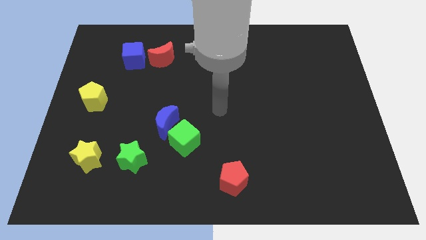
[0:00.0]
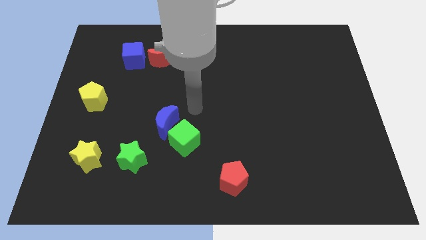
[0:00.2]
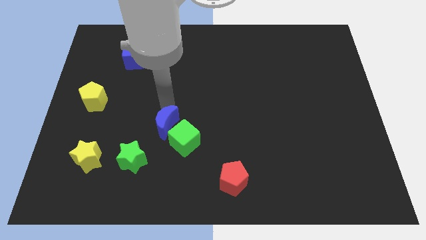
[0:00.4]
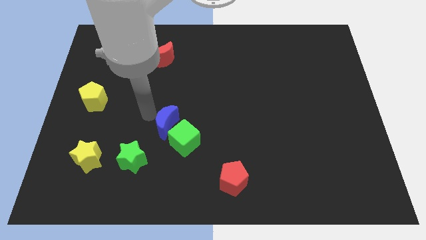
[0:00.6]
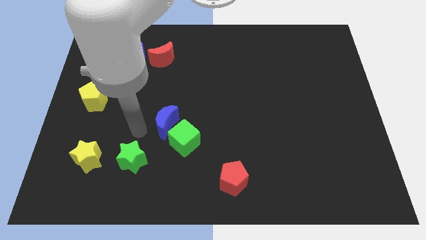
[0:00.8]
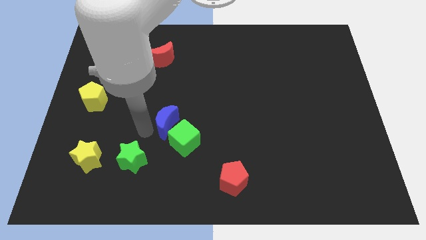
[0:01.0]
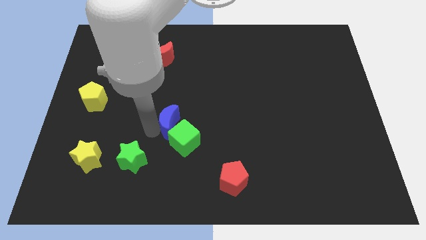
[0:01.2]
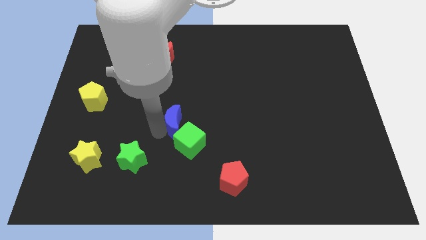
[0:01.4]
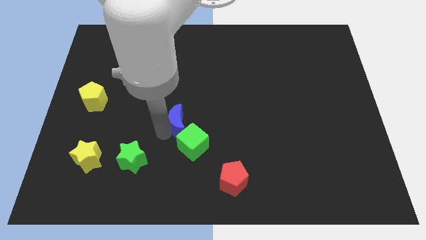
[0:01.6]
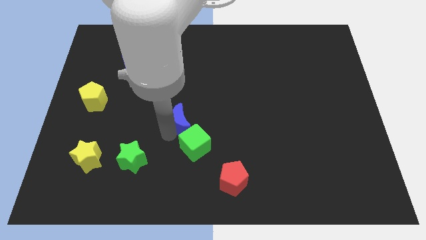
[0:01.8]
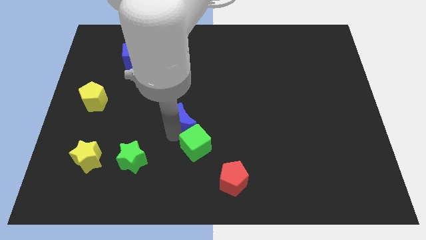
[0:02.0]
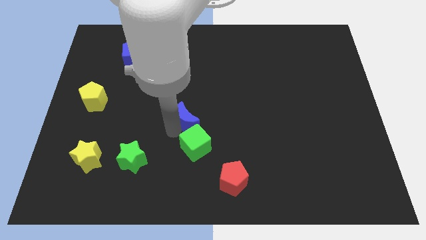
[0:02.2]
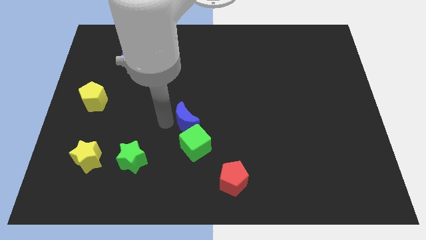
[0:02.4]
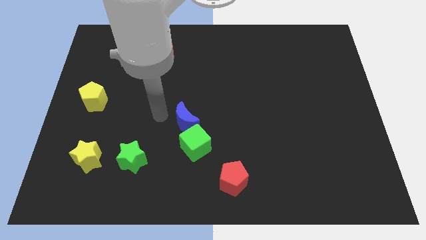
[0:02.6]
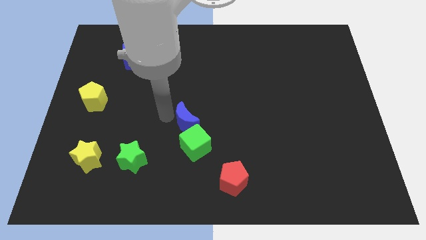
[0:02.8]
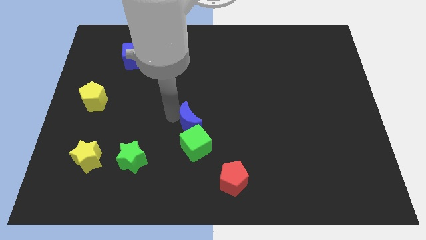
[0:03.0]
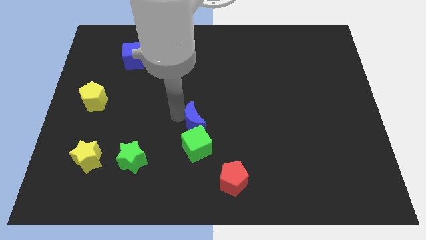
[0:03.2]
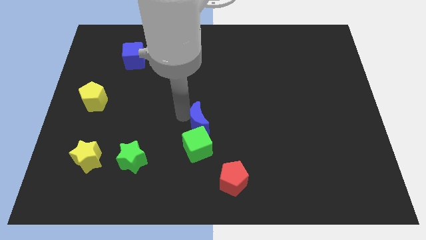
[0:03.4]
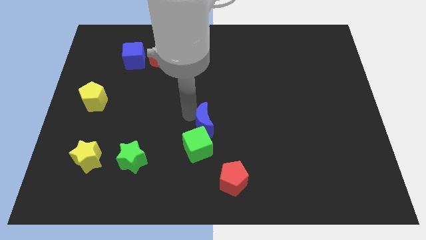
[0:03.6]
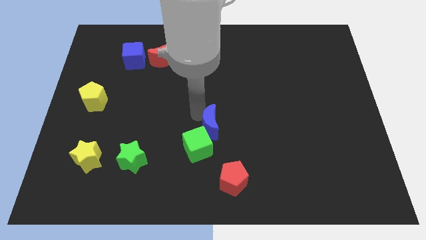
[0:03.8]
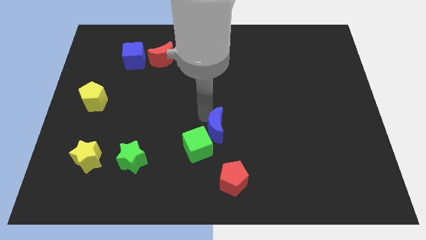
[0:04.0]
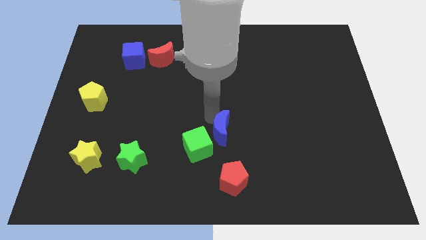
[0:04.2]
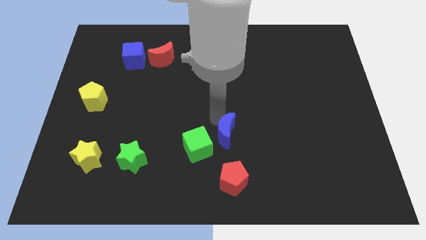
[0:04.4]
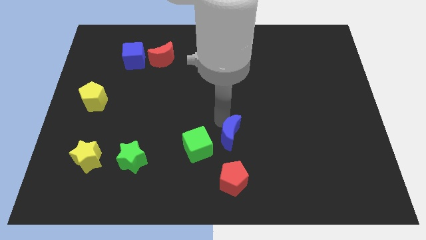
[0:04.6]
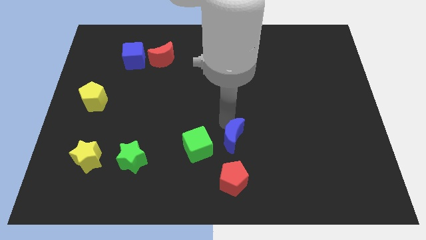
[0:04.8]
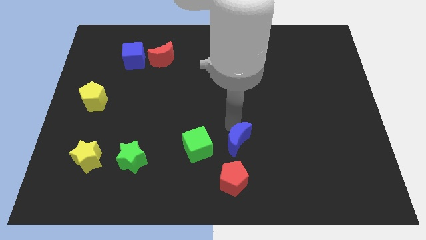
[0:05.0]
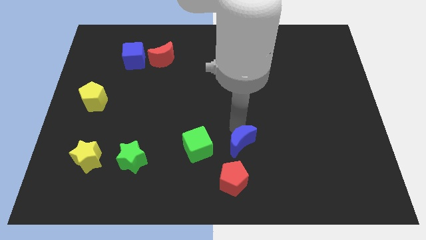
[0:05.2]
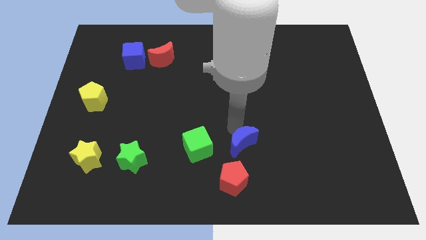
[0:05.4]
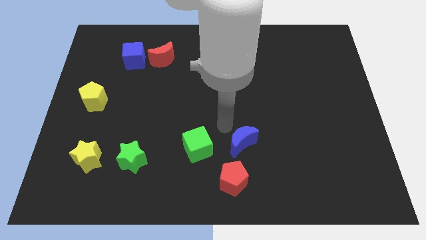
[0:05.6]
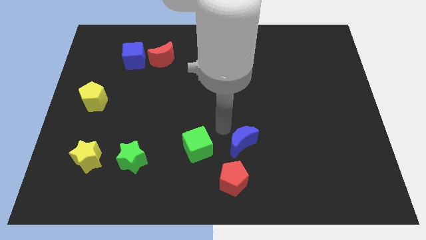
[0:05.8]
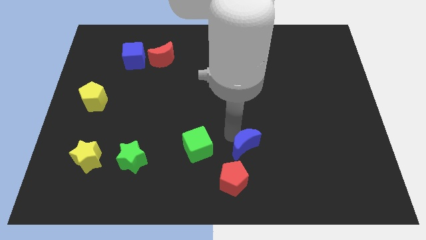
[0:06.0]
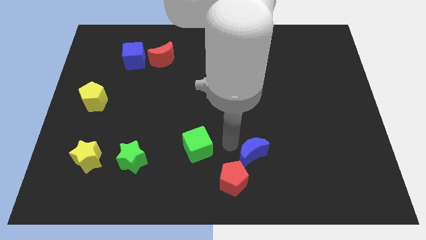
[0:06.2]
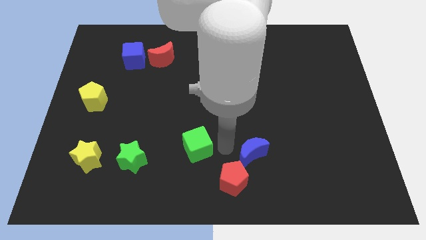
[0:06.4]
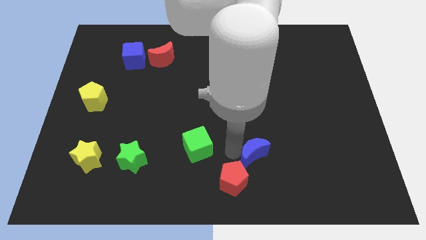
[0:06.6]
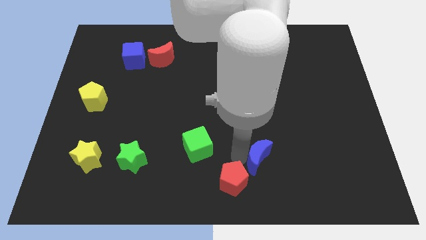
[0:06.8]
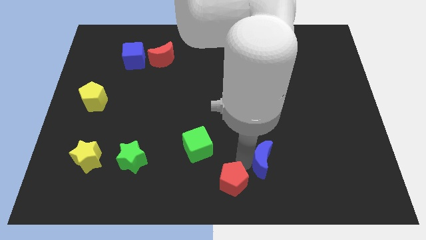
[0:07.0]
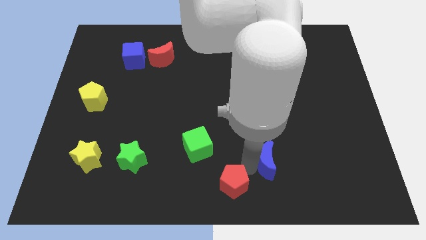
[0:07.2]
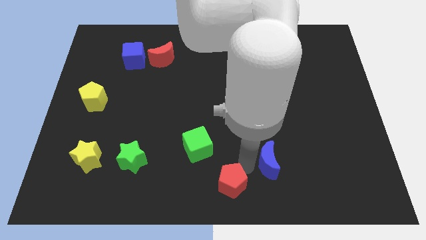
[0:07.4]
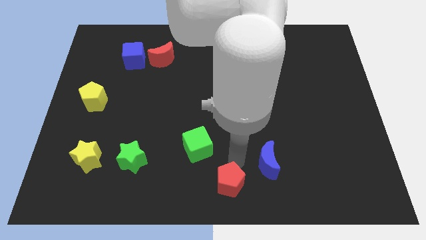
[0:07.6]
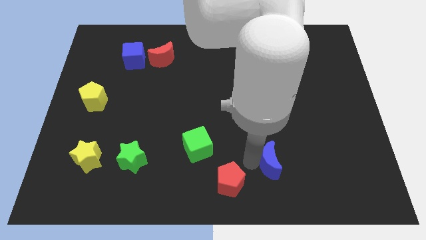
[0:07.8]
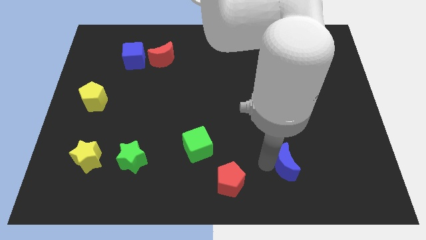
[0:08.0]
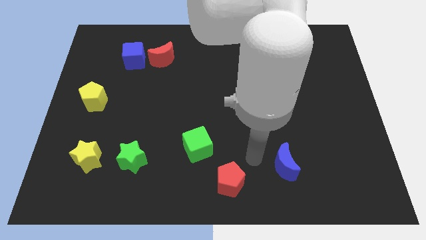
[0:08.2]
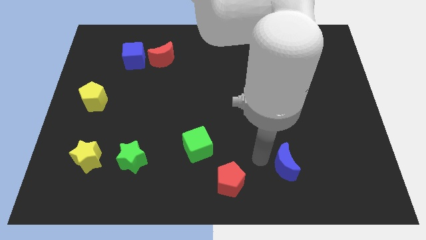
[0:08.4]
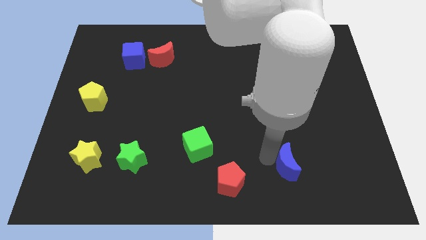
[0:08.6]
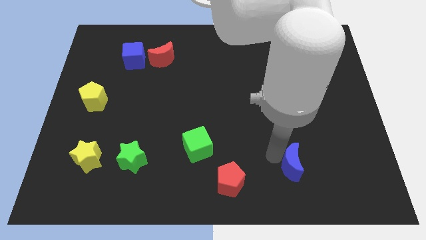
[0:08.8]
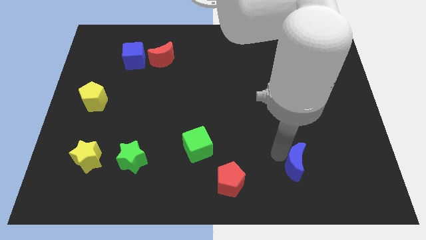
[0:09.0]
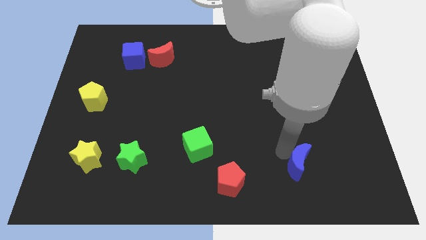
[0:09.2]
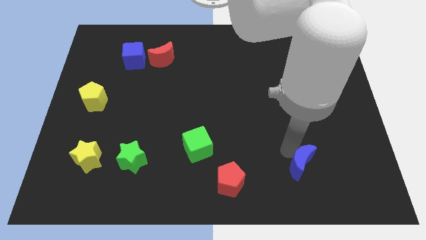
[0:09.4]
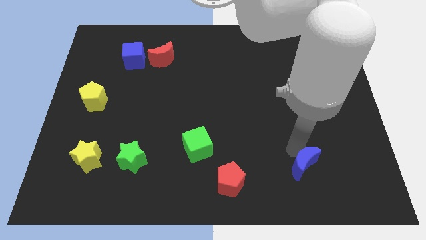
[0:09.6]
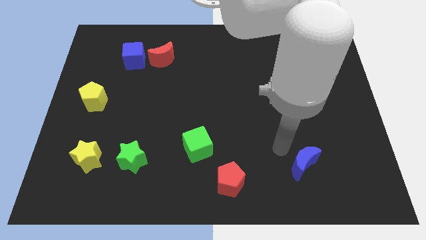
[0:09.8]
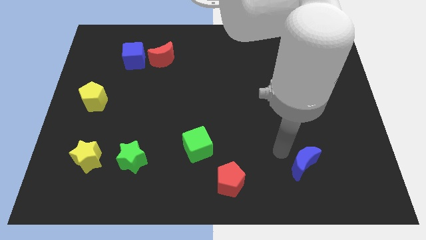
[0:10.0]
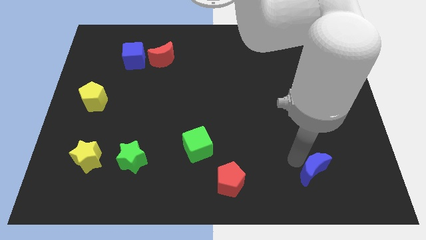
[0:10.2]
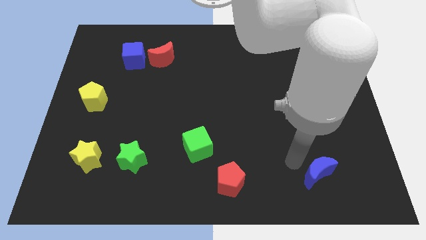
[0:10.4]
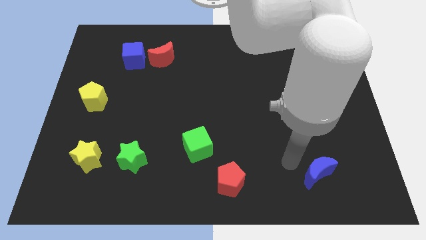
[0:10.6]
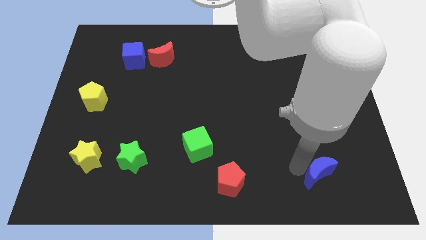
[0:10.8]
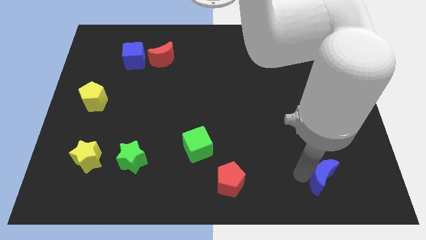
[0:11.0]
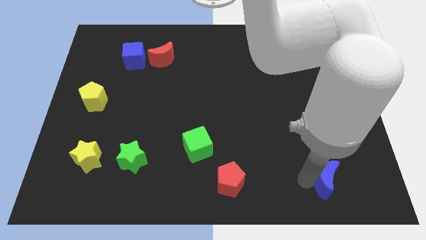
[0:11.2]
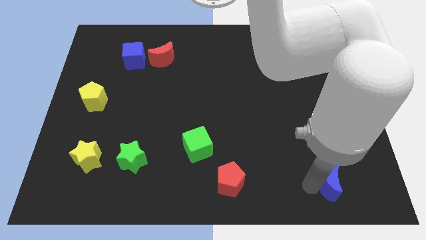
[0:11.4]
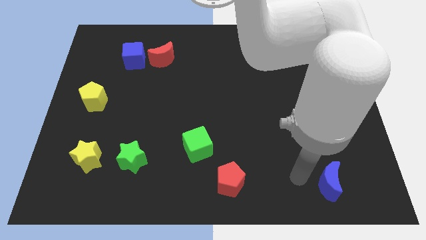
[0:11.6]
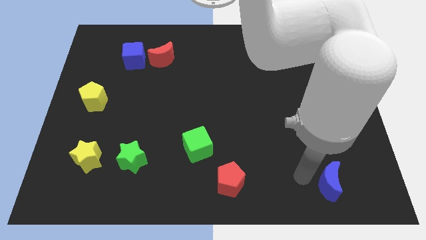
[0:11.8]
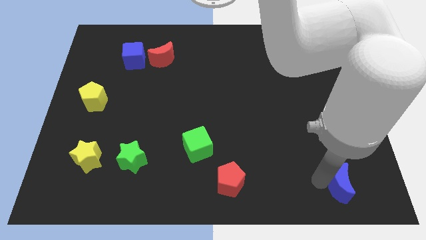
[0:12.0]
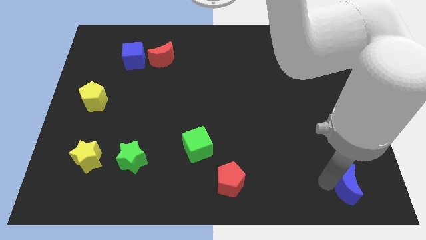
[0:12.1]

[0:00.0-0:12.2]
slide the blue moon to the bottom right corner
